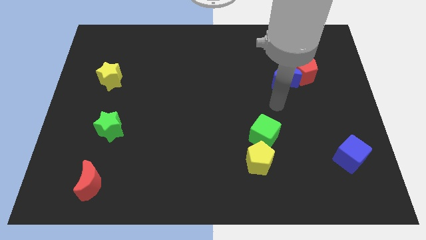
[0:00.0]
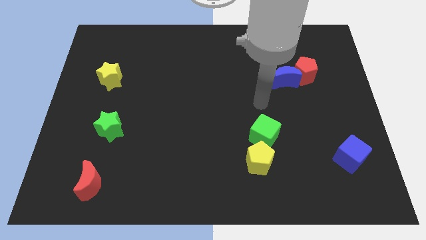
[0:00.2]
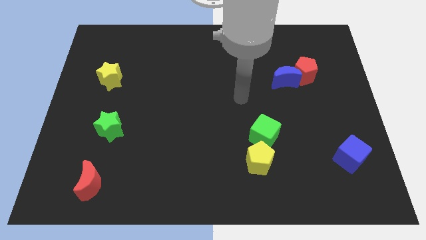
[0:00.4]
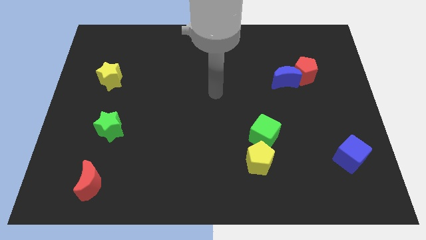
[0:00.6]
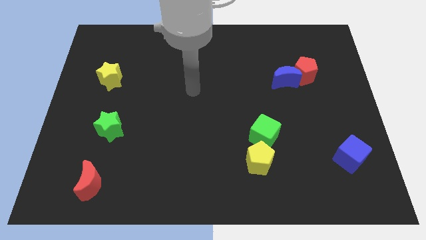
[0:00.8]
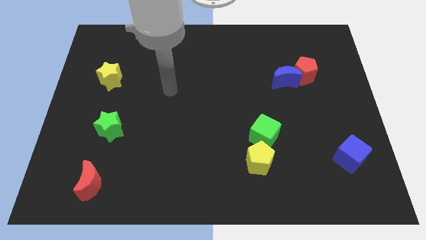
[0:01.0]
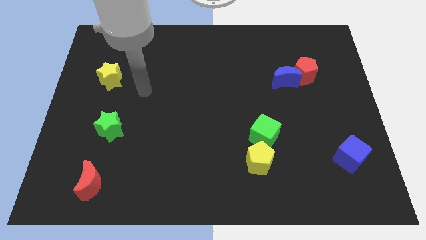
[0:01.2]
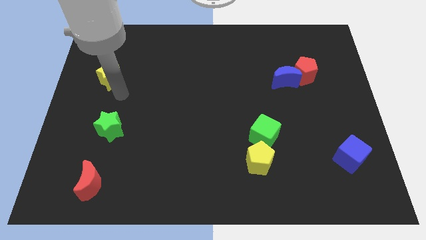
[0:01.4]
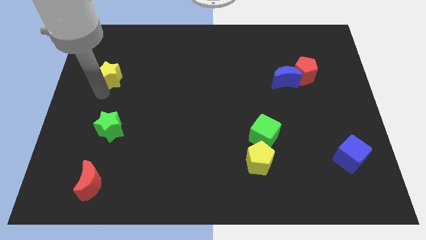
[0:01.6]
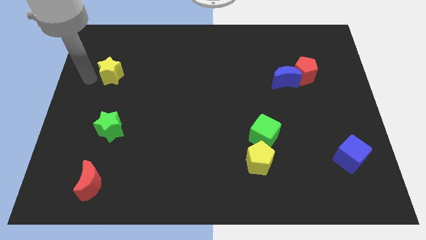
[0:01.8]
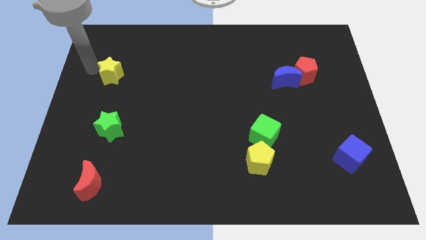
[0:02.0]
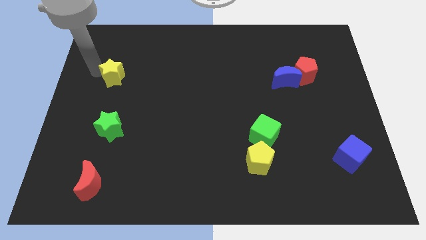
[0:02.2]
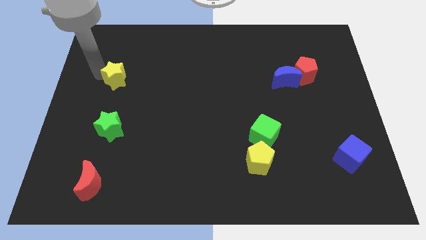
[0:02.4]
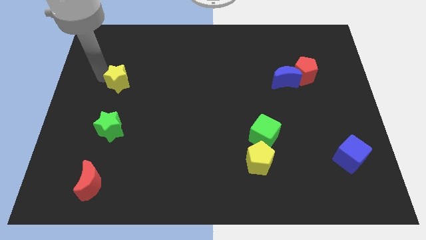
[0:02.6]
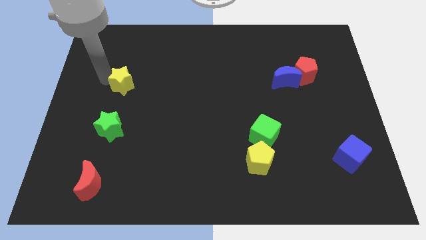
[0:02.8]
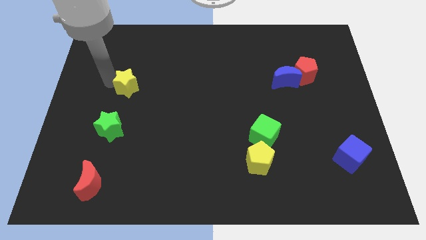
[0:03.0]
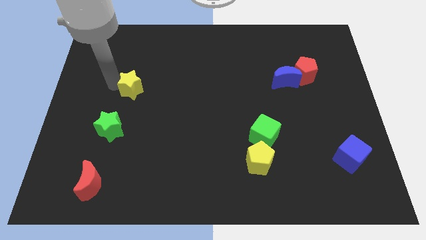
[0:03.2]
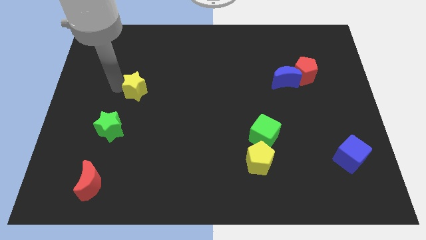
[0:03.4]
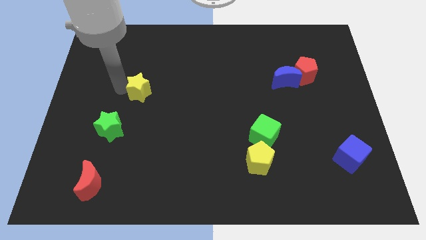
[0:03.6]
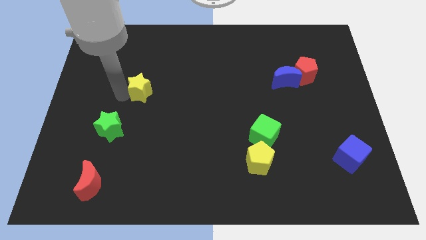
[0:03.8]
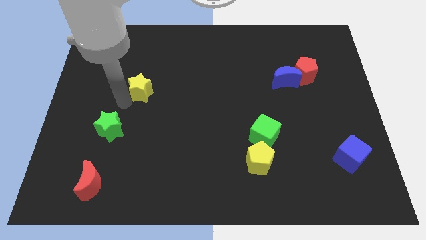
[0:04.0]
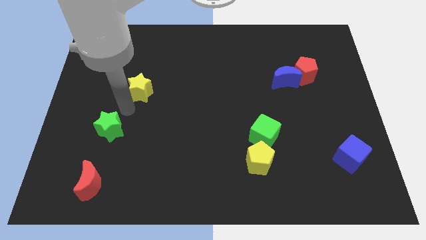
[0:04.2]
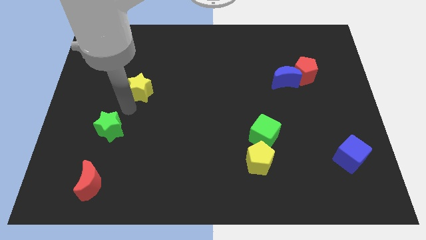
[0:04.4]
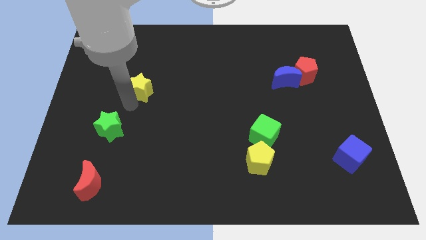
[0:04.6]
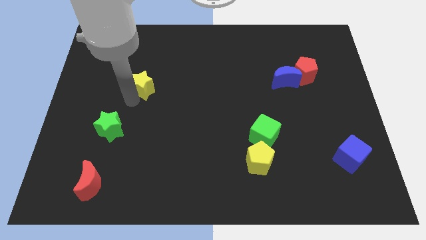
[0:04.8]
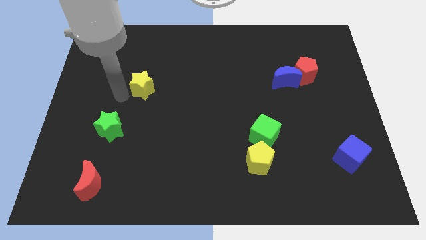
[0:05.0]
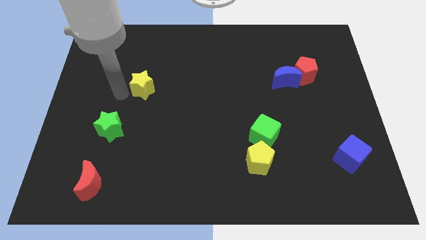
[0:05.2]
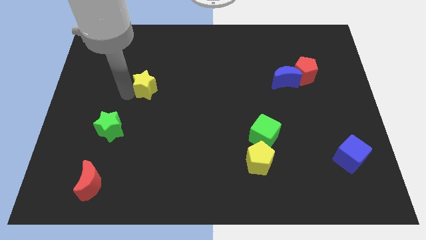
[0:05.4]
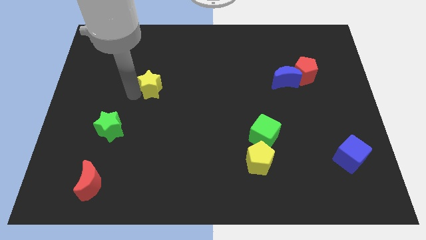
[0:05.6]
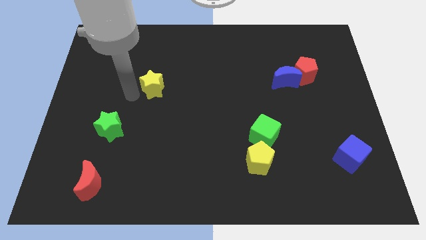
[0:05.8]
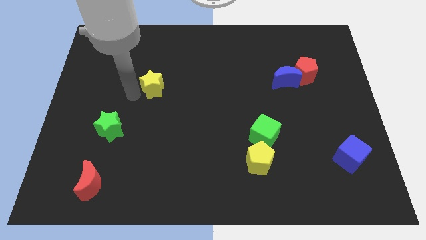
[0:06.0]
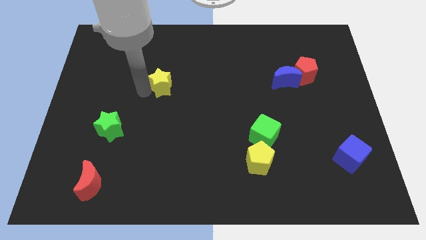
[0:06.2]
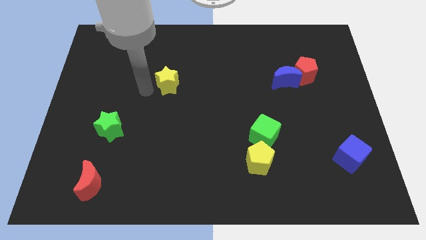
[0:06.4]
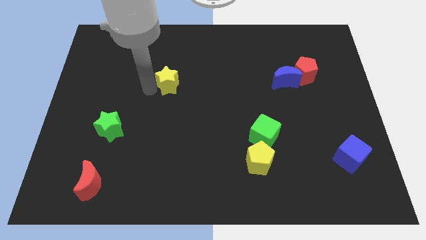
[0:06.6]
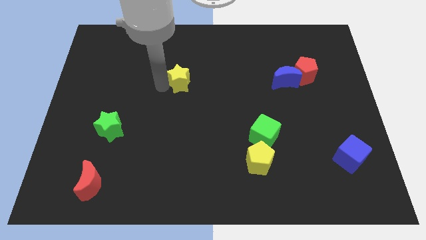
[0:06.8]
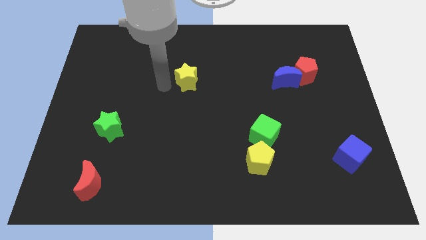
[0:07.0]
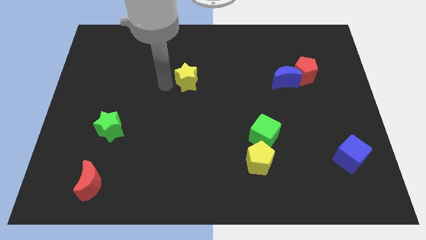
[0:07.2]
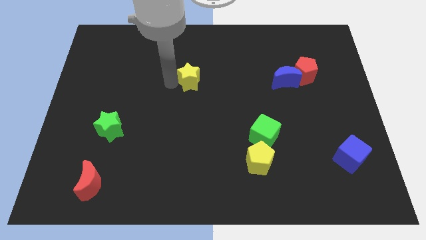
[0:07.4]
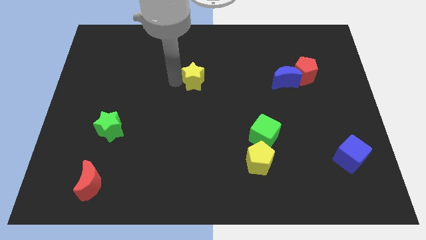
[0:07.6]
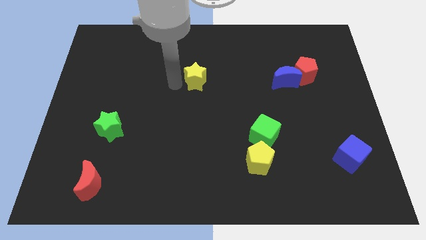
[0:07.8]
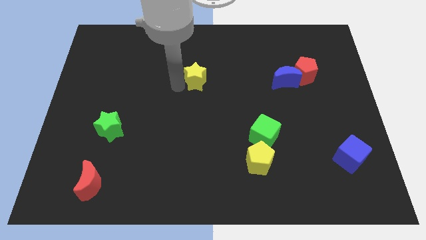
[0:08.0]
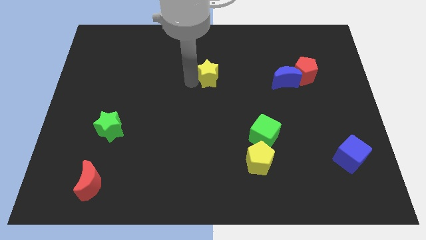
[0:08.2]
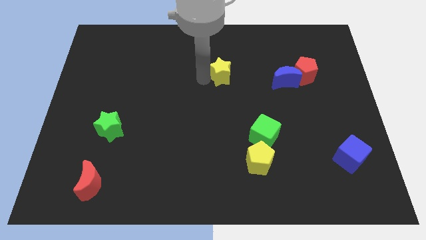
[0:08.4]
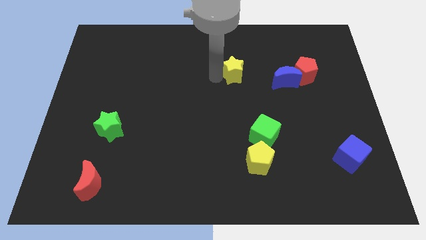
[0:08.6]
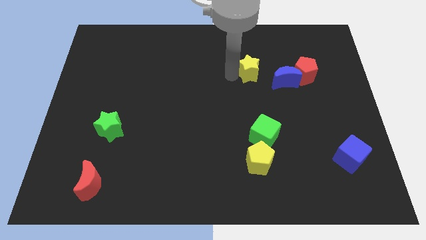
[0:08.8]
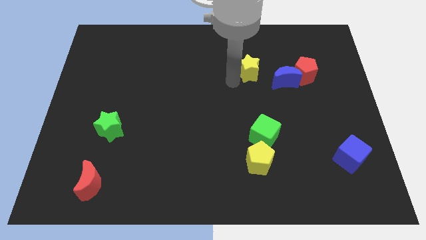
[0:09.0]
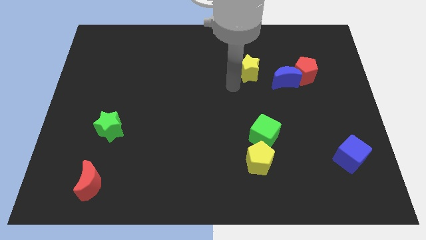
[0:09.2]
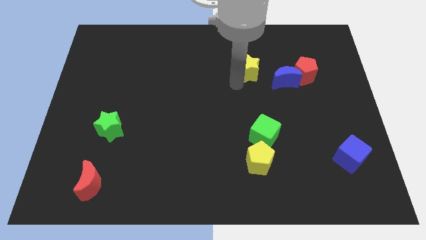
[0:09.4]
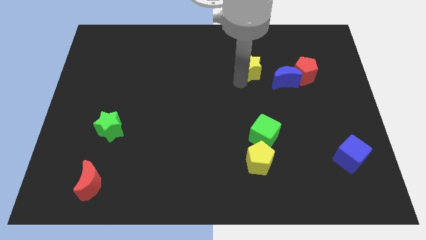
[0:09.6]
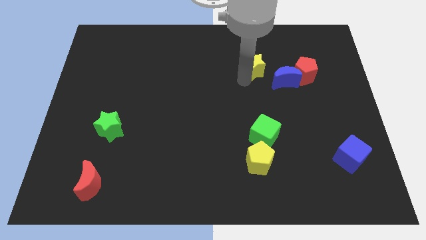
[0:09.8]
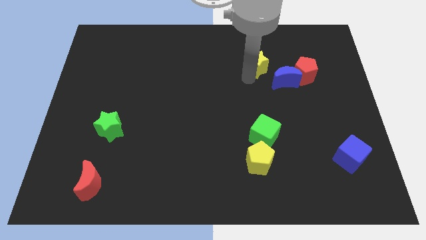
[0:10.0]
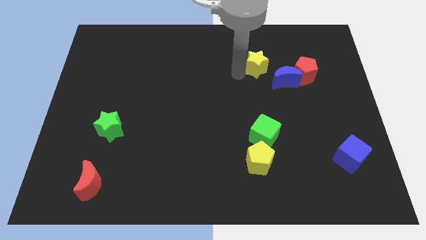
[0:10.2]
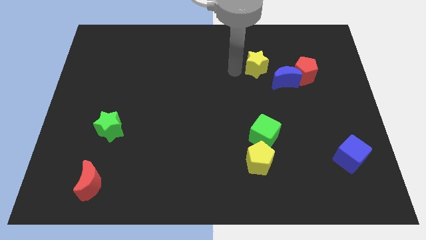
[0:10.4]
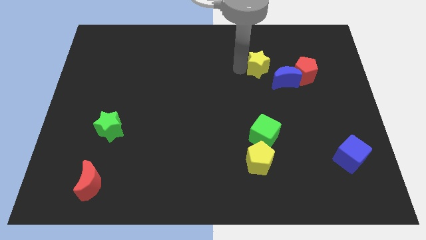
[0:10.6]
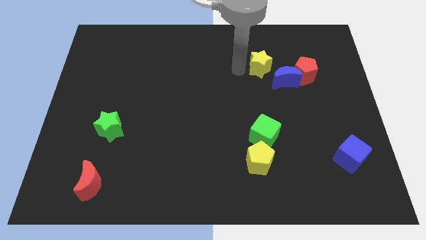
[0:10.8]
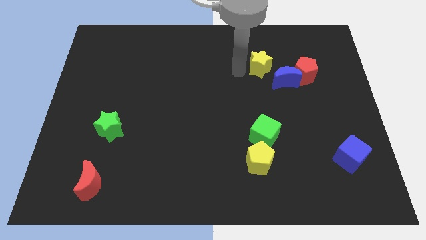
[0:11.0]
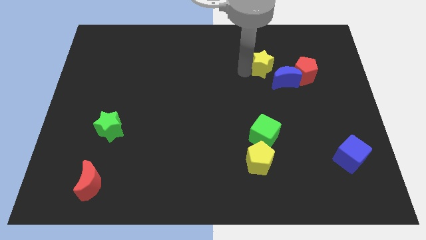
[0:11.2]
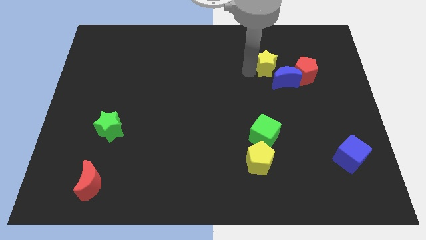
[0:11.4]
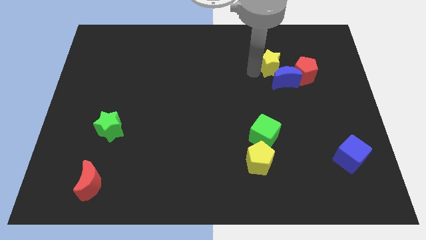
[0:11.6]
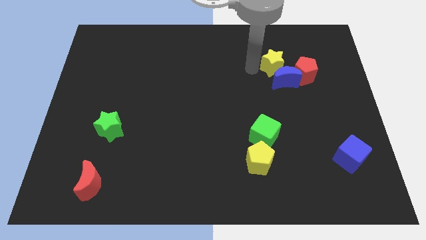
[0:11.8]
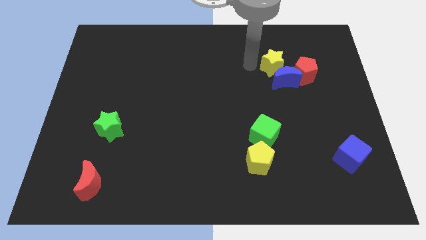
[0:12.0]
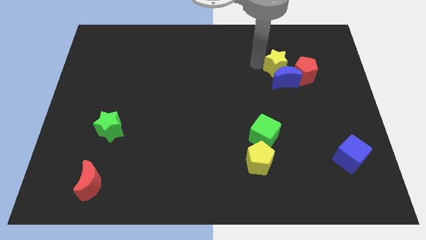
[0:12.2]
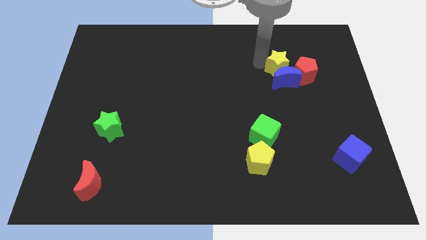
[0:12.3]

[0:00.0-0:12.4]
move the yellow star diagonally up and to the right of the blue moon
